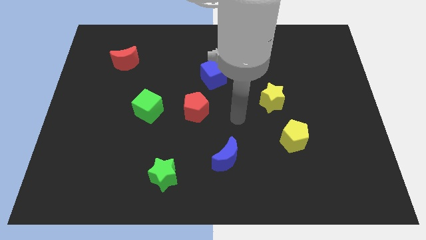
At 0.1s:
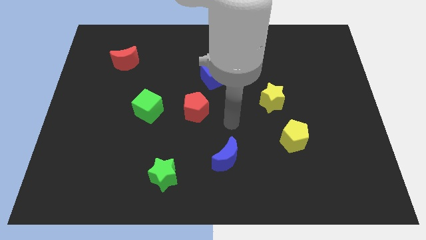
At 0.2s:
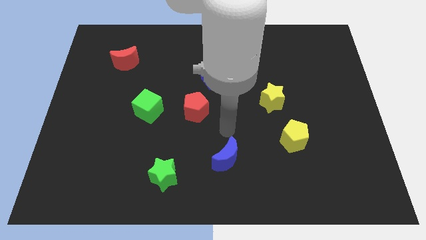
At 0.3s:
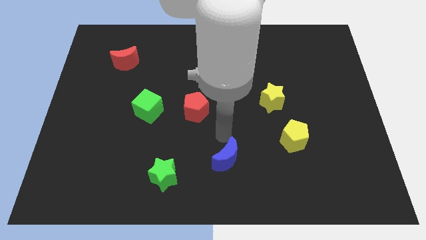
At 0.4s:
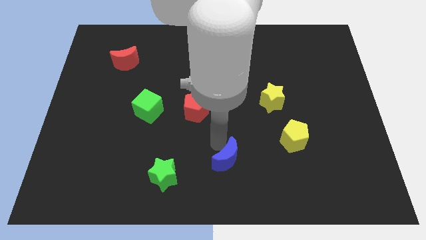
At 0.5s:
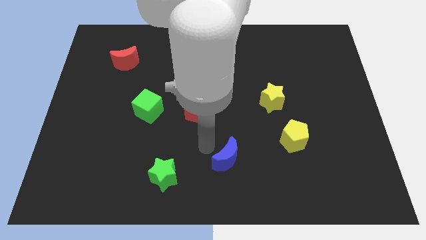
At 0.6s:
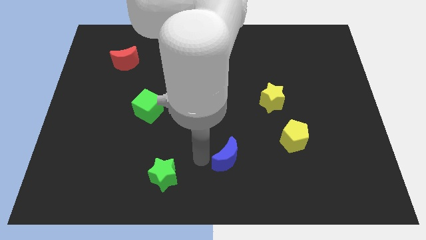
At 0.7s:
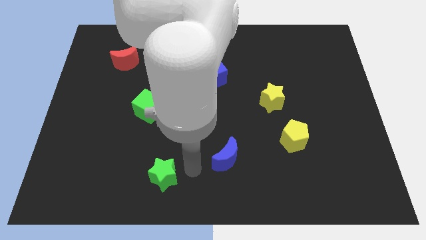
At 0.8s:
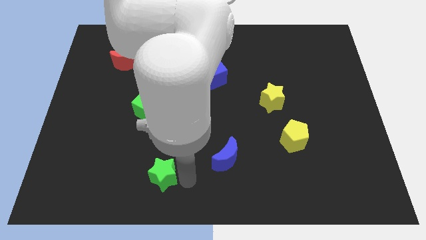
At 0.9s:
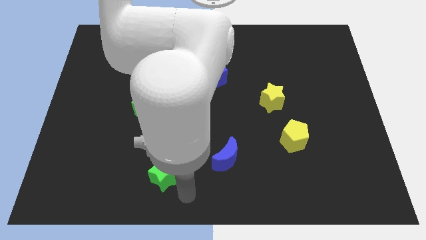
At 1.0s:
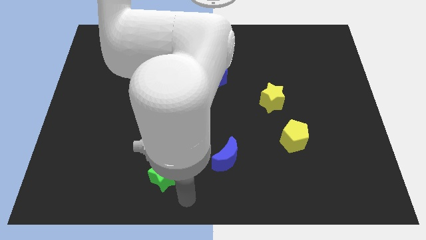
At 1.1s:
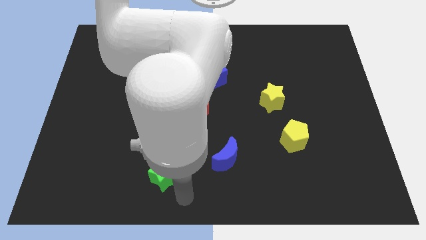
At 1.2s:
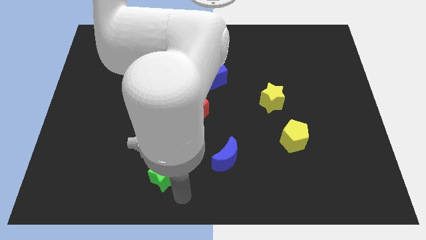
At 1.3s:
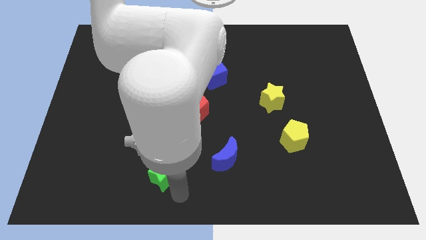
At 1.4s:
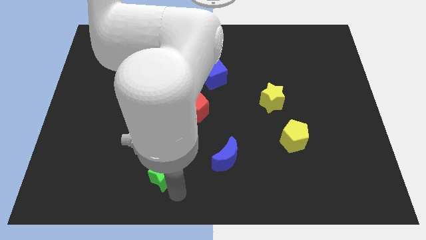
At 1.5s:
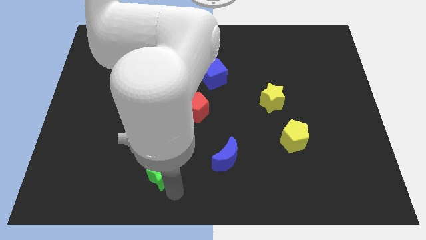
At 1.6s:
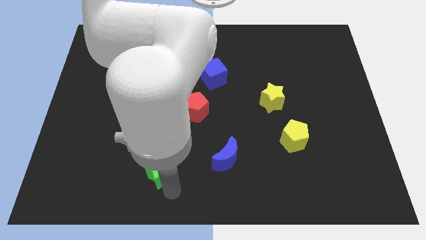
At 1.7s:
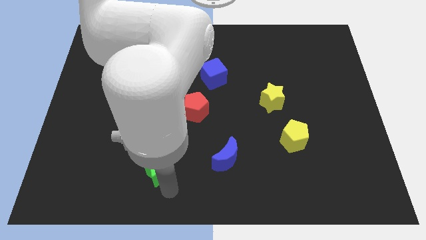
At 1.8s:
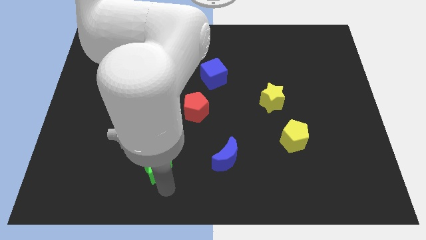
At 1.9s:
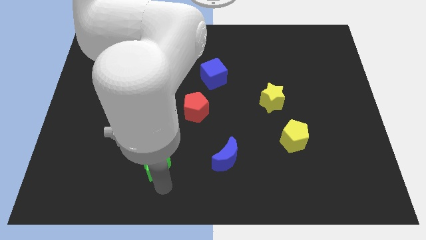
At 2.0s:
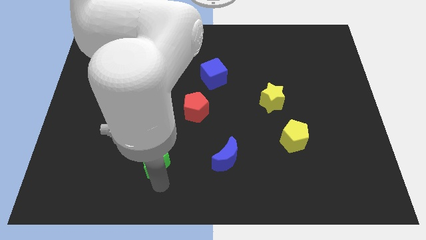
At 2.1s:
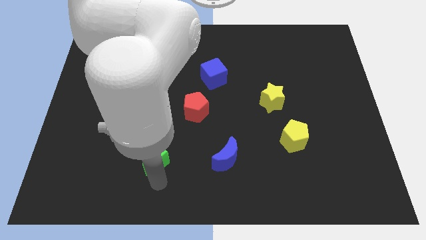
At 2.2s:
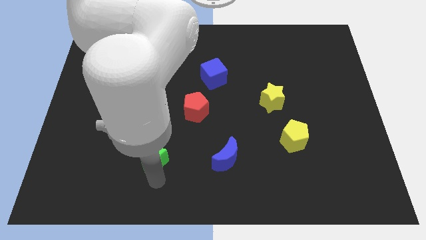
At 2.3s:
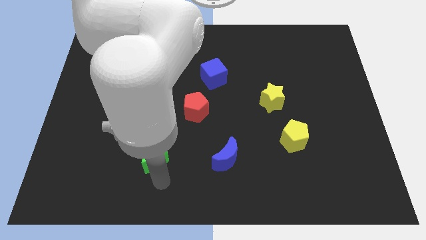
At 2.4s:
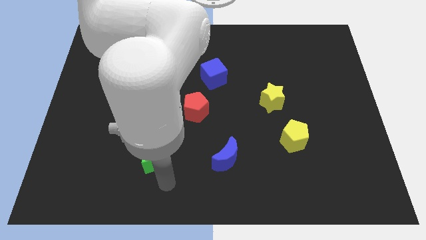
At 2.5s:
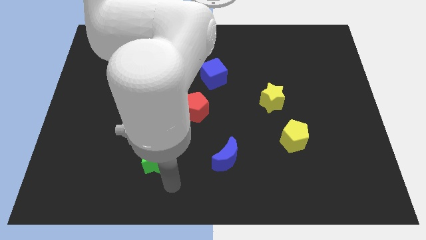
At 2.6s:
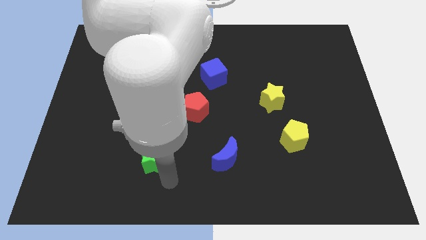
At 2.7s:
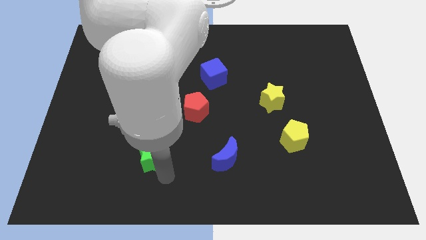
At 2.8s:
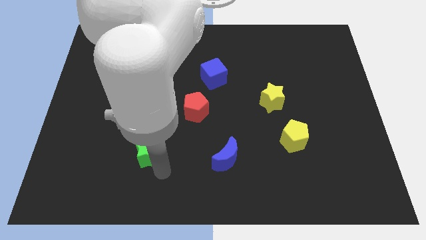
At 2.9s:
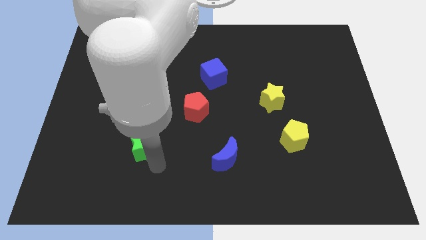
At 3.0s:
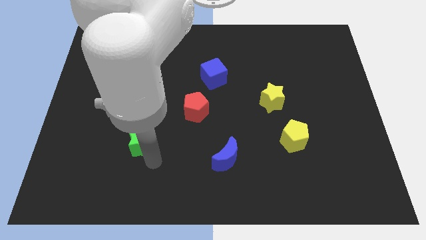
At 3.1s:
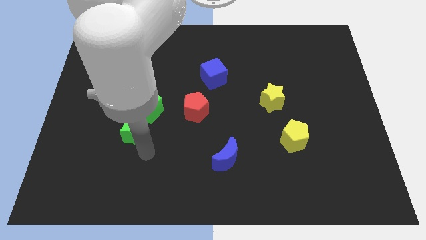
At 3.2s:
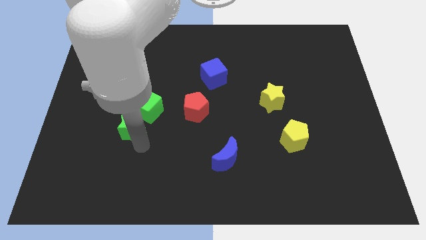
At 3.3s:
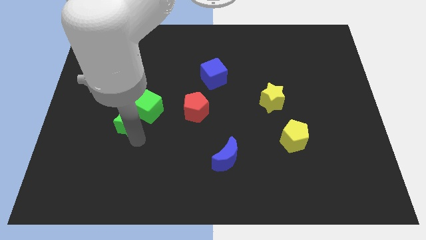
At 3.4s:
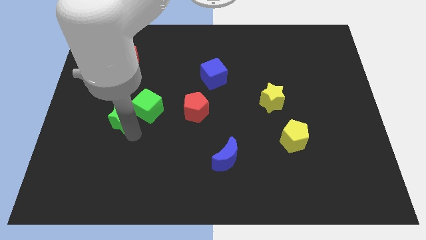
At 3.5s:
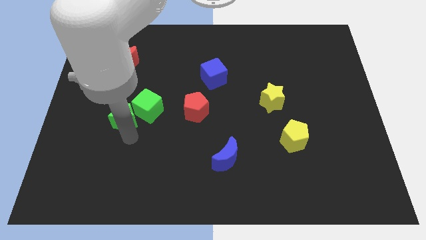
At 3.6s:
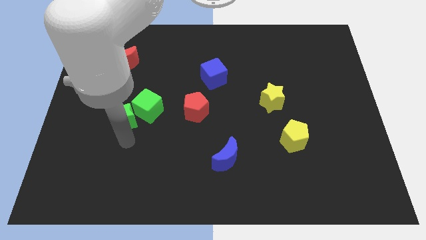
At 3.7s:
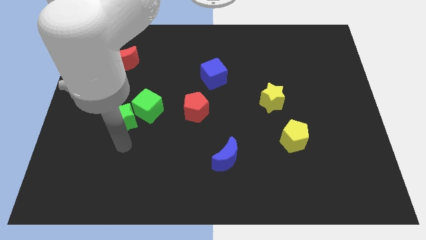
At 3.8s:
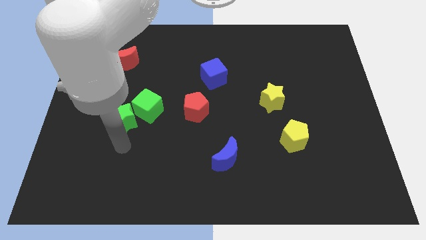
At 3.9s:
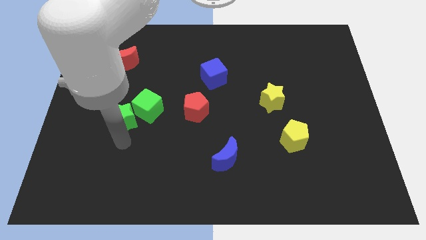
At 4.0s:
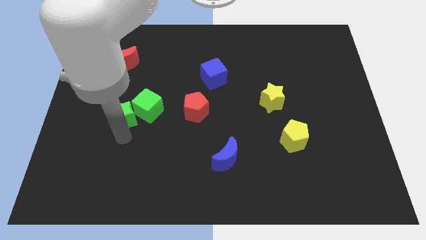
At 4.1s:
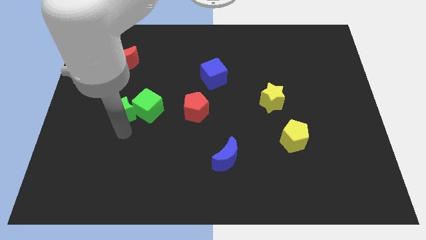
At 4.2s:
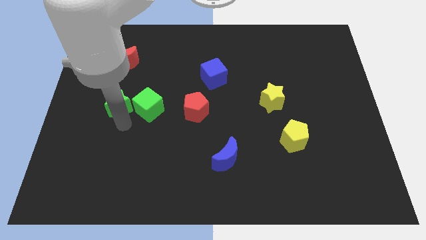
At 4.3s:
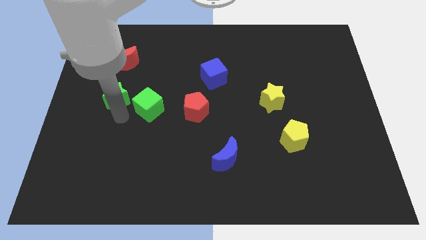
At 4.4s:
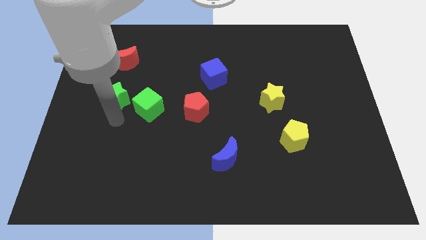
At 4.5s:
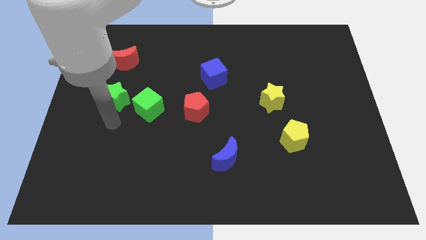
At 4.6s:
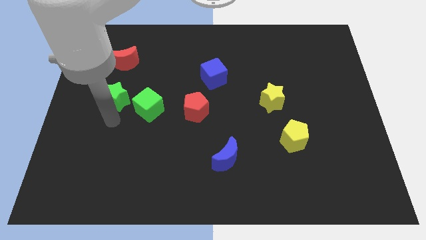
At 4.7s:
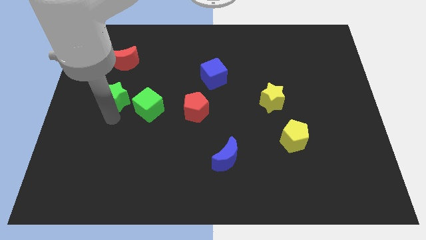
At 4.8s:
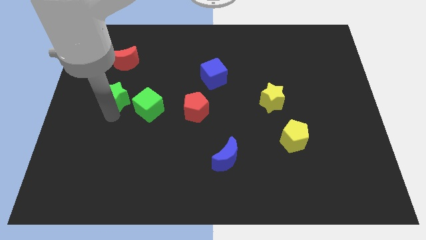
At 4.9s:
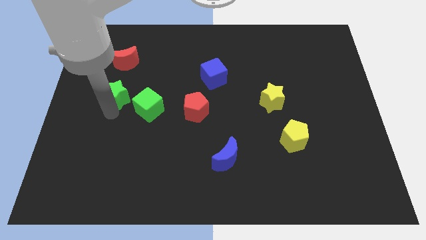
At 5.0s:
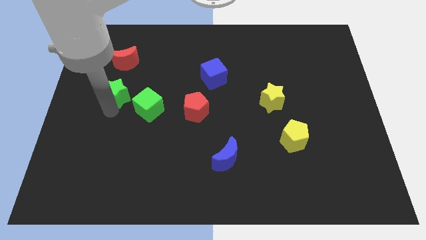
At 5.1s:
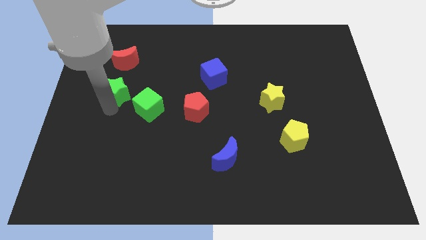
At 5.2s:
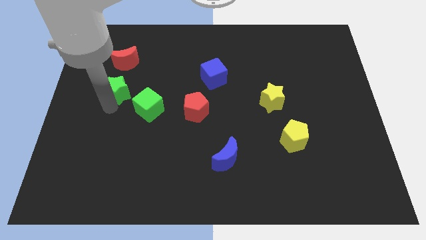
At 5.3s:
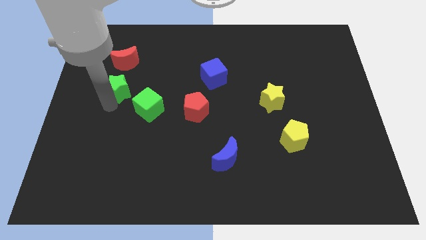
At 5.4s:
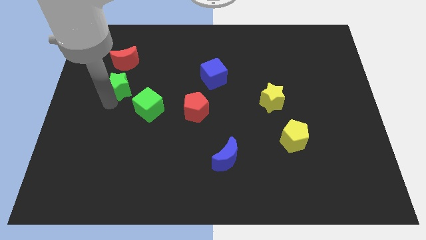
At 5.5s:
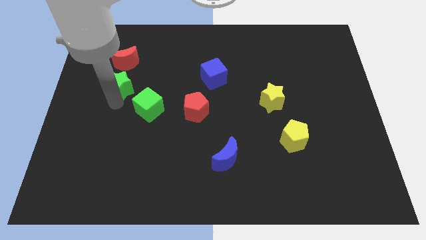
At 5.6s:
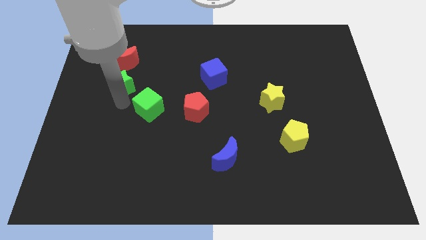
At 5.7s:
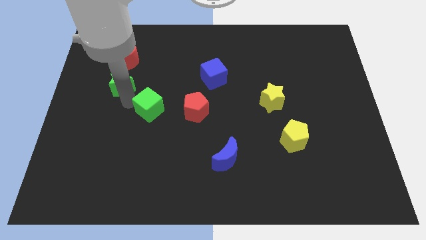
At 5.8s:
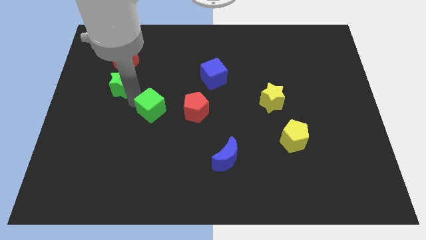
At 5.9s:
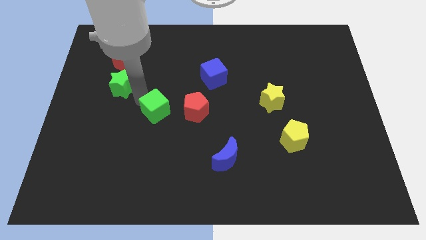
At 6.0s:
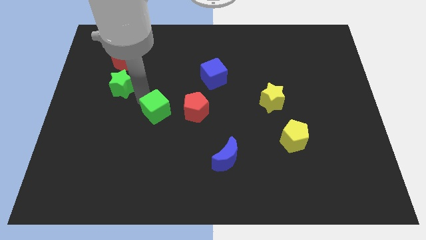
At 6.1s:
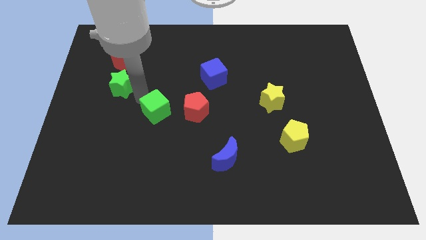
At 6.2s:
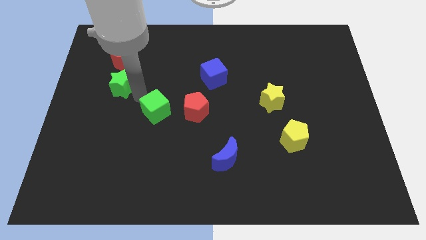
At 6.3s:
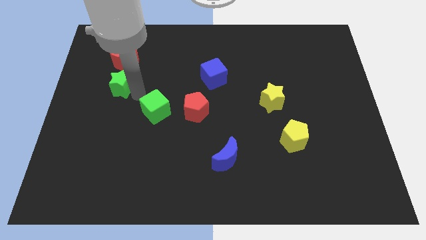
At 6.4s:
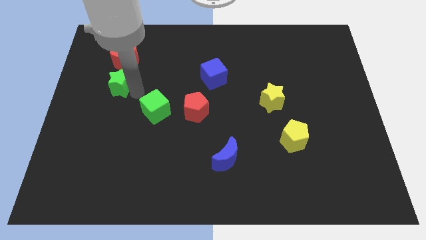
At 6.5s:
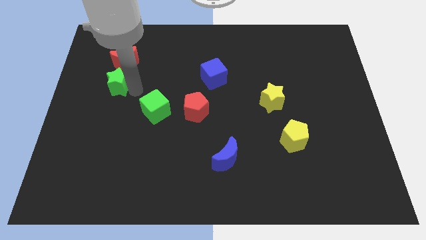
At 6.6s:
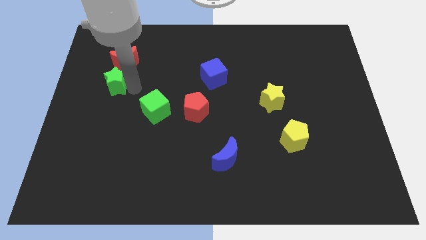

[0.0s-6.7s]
push the green star diagonally down and to the left of the red moon
